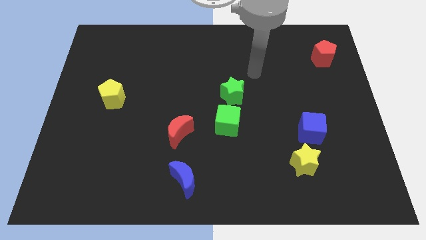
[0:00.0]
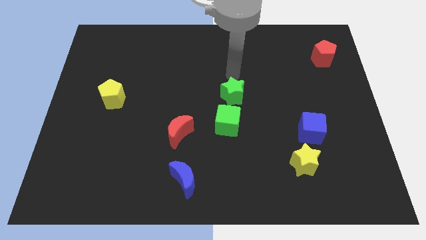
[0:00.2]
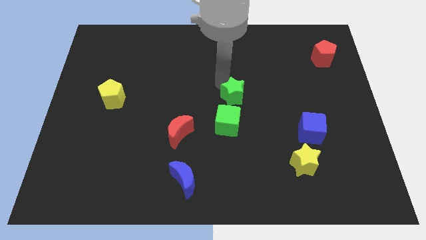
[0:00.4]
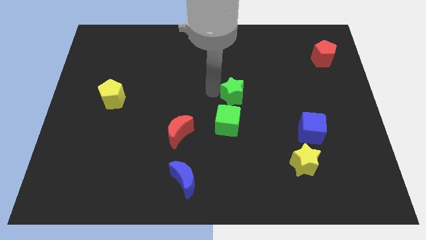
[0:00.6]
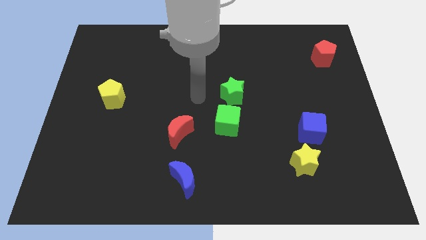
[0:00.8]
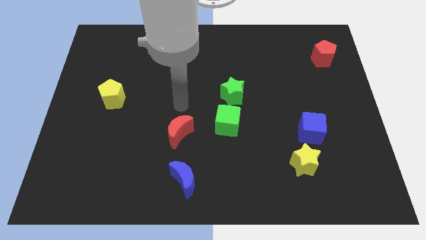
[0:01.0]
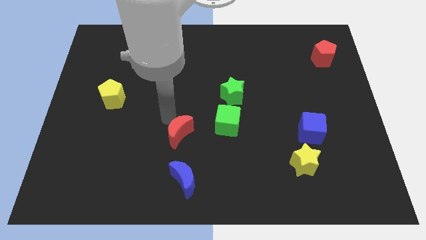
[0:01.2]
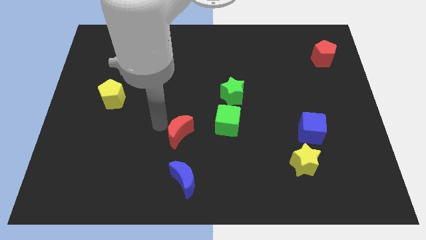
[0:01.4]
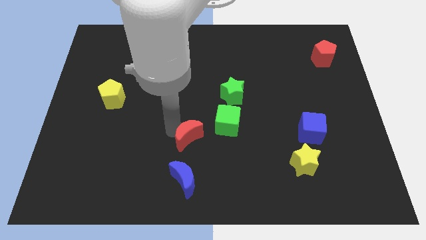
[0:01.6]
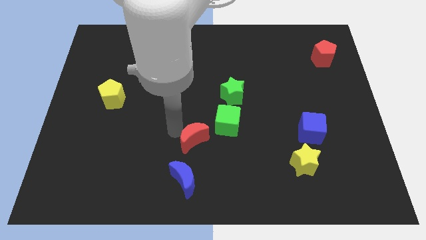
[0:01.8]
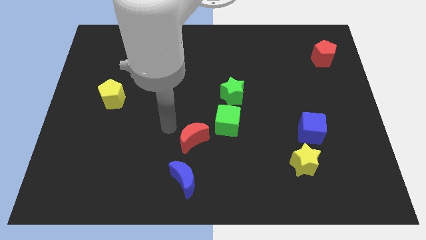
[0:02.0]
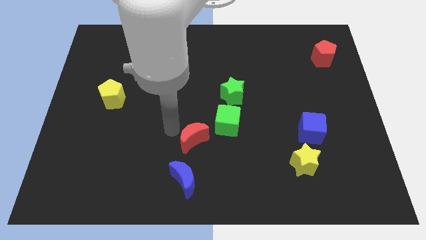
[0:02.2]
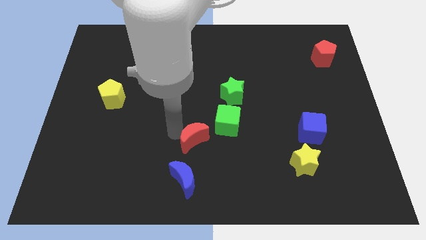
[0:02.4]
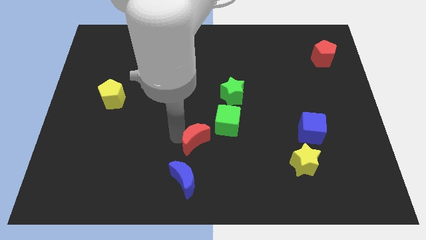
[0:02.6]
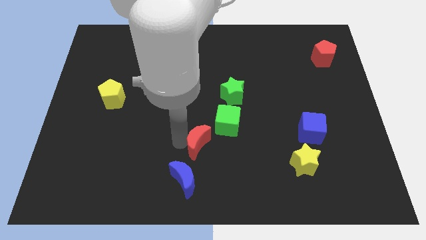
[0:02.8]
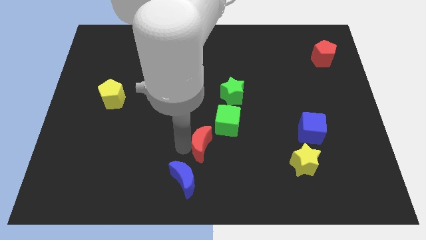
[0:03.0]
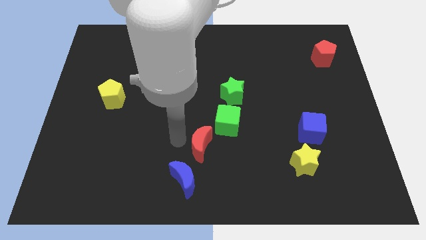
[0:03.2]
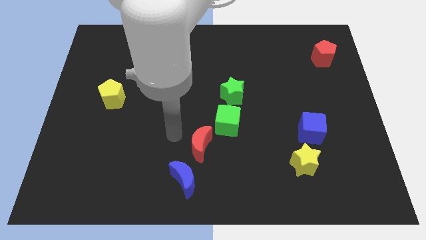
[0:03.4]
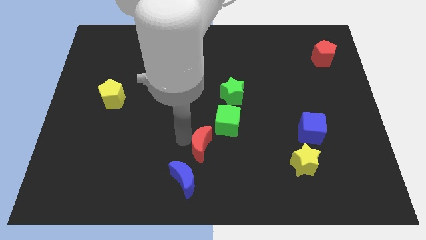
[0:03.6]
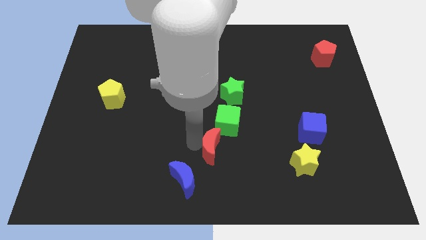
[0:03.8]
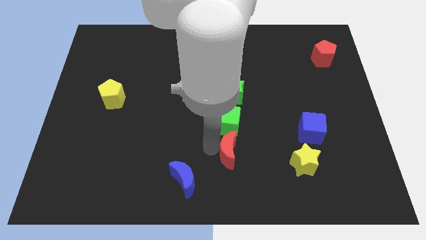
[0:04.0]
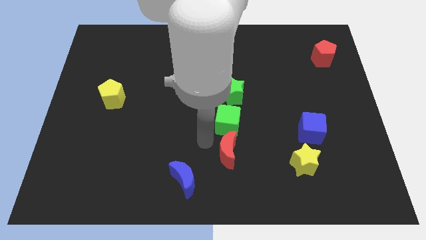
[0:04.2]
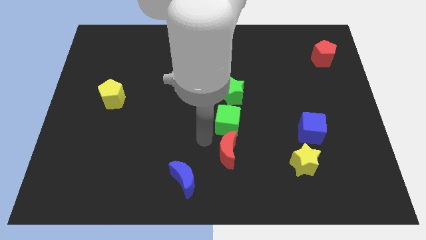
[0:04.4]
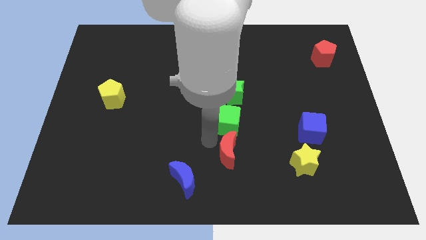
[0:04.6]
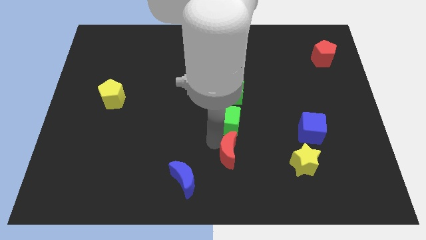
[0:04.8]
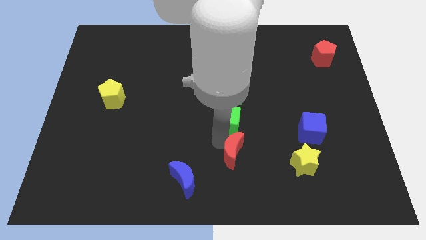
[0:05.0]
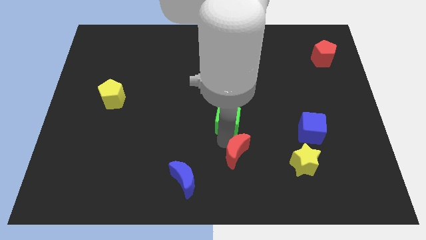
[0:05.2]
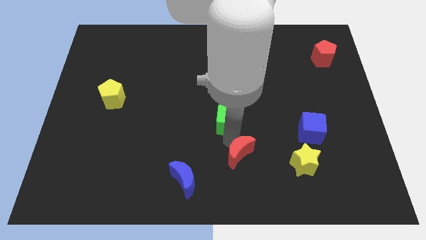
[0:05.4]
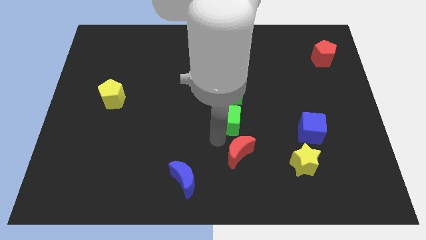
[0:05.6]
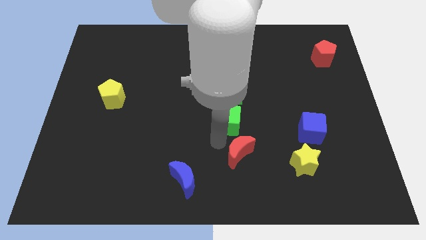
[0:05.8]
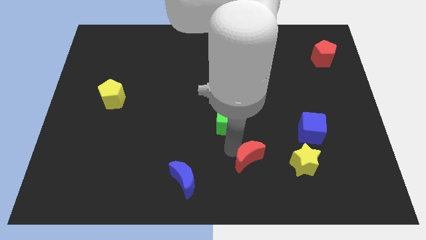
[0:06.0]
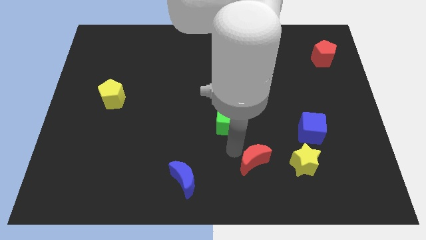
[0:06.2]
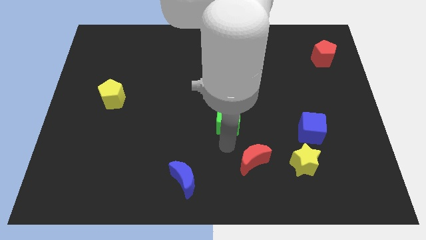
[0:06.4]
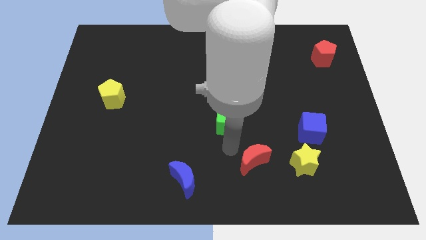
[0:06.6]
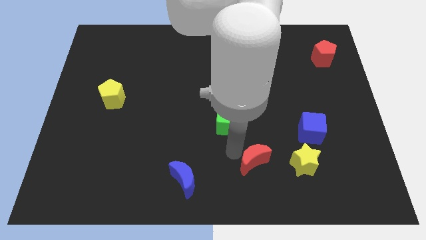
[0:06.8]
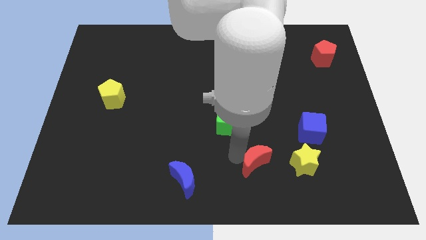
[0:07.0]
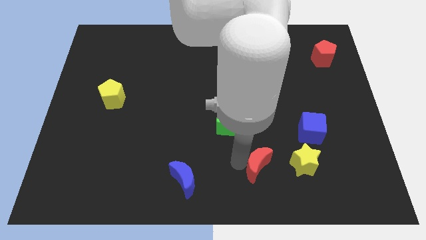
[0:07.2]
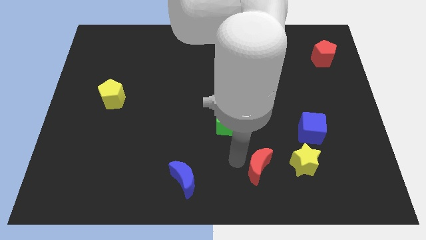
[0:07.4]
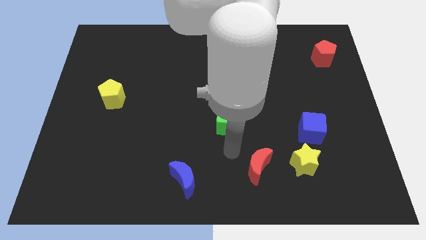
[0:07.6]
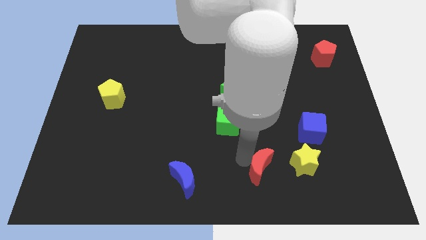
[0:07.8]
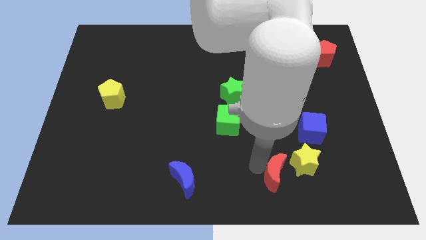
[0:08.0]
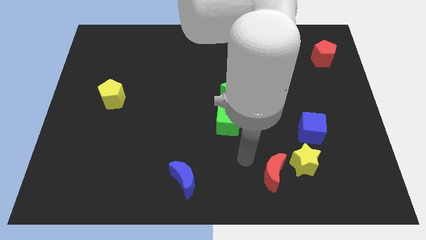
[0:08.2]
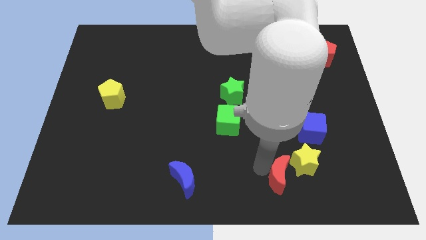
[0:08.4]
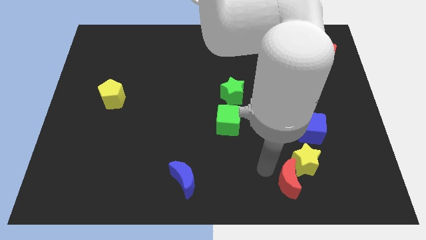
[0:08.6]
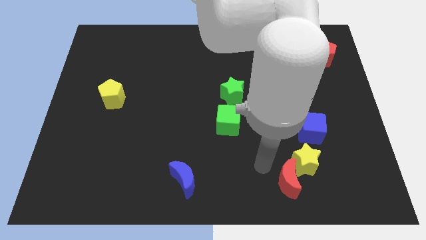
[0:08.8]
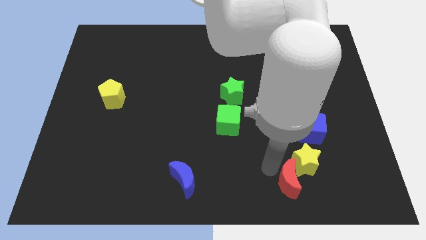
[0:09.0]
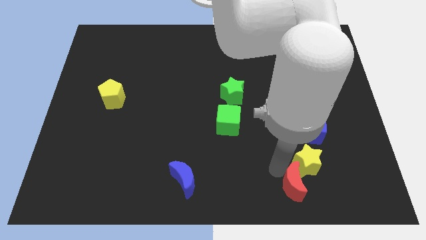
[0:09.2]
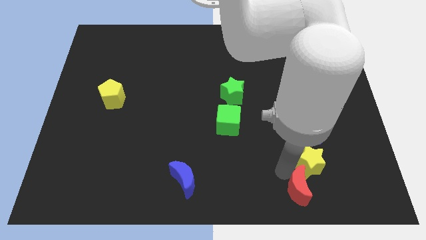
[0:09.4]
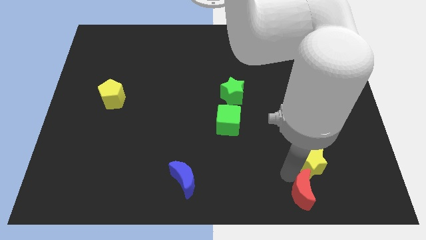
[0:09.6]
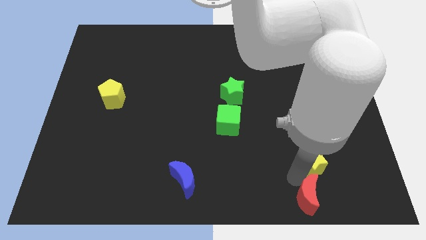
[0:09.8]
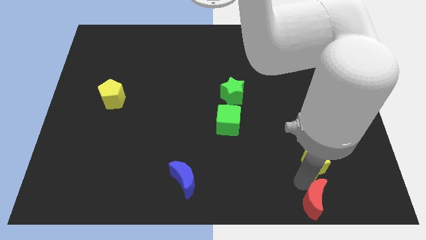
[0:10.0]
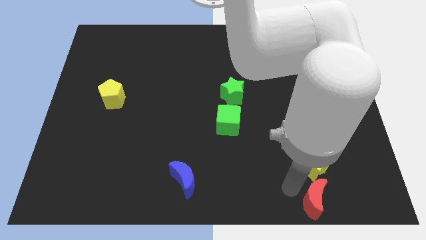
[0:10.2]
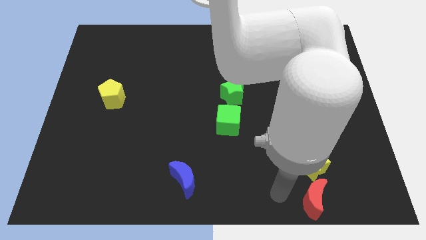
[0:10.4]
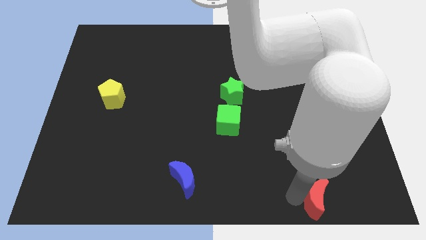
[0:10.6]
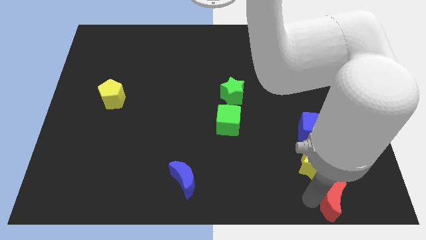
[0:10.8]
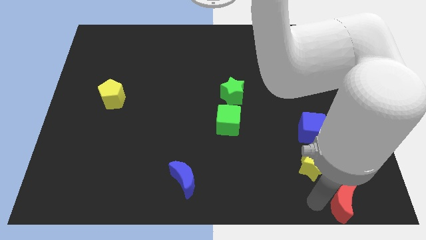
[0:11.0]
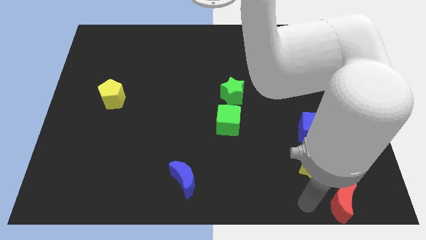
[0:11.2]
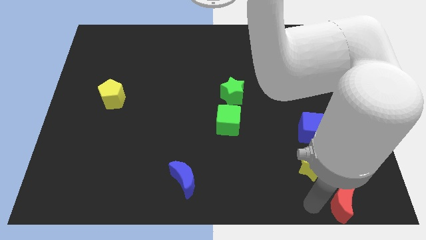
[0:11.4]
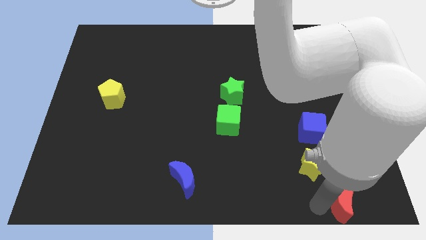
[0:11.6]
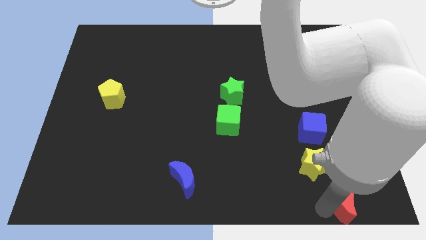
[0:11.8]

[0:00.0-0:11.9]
slide the red moon to the lower right corner
